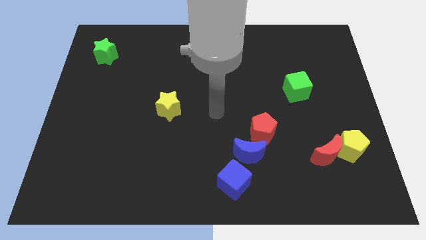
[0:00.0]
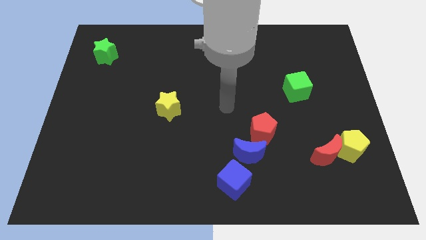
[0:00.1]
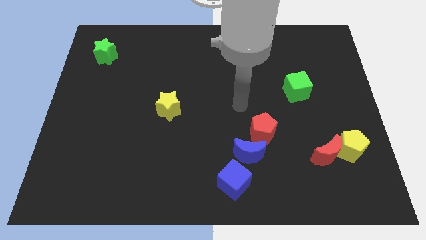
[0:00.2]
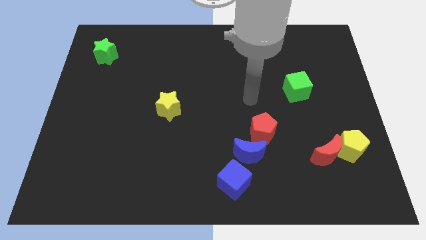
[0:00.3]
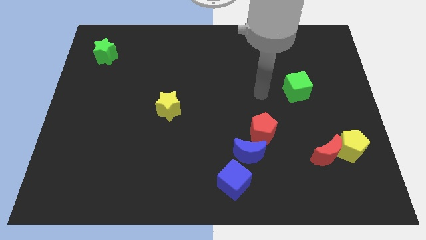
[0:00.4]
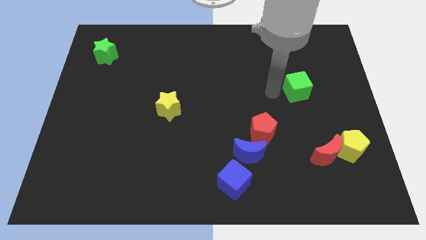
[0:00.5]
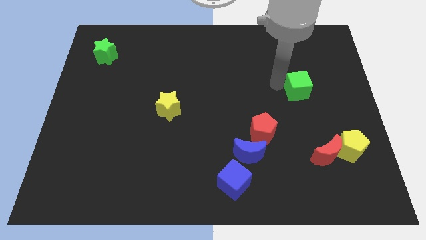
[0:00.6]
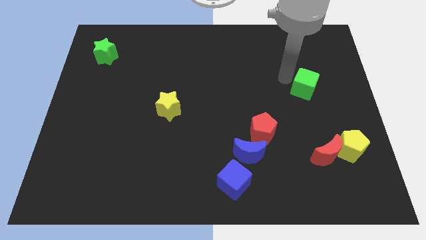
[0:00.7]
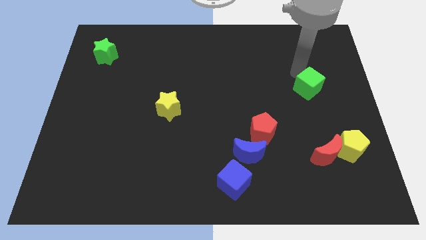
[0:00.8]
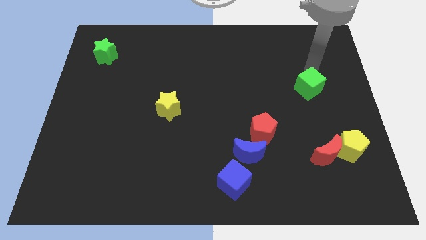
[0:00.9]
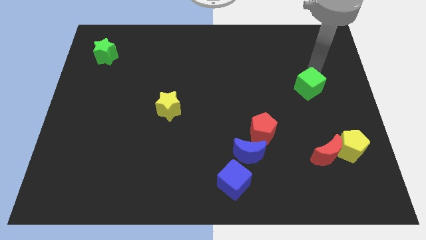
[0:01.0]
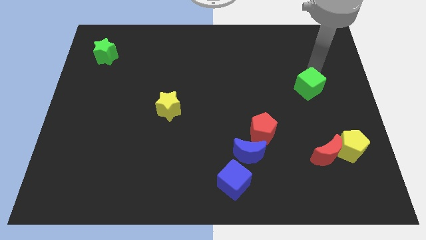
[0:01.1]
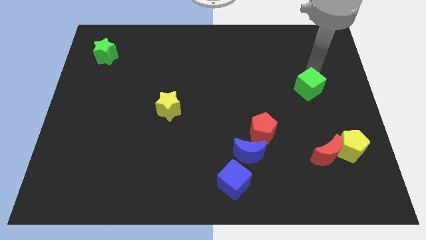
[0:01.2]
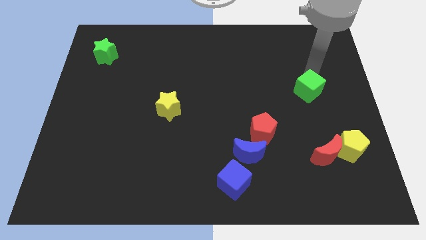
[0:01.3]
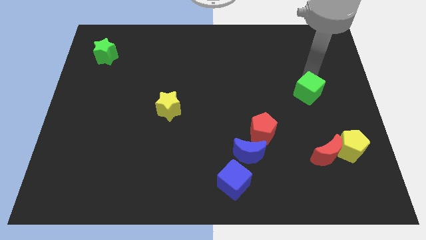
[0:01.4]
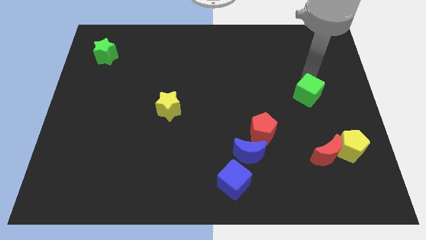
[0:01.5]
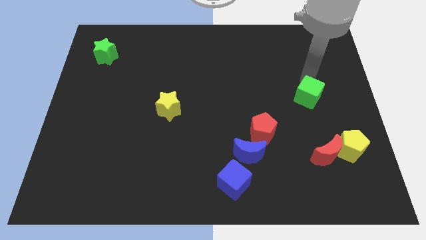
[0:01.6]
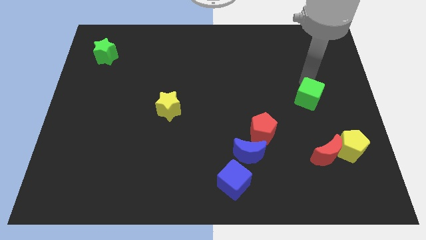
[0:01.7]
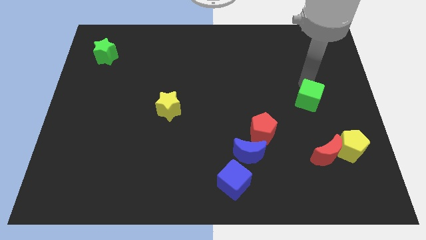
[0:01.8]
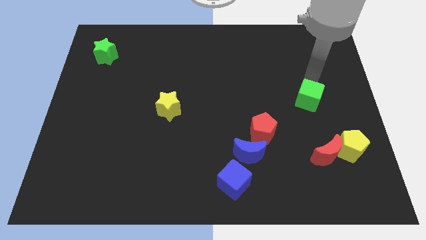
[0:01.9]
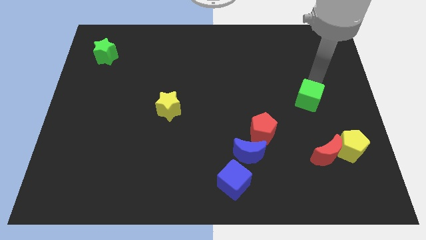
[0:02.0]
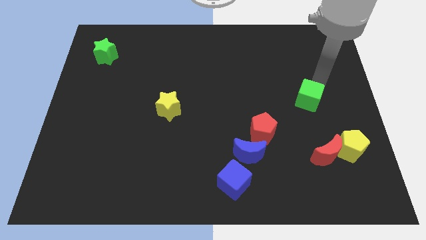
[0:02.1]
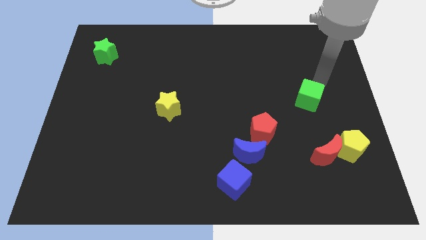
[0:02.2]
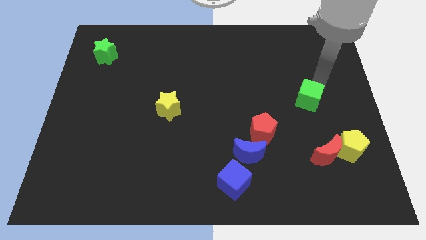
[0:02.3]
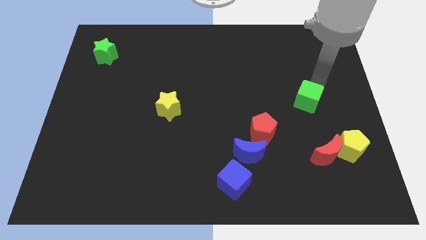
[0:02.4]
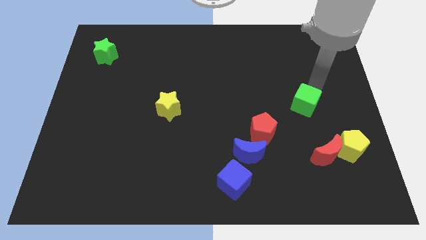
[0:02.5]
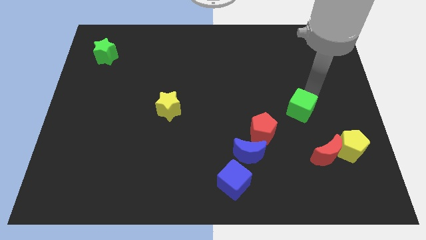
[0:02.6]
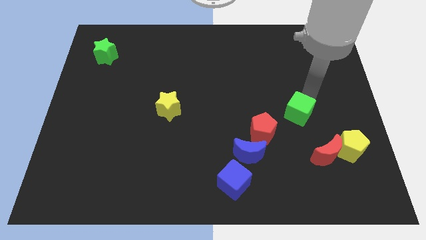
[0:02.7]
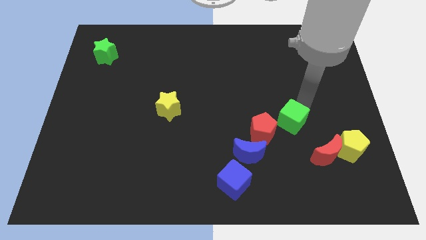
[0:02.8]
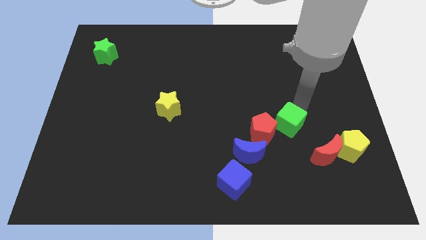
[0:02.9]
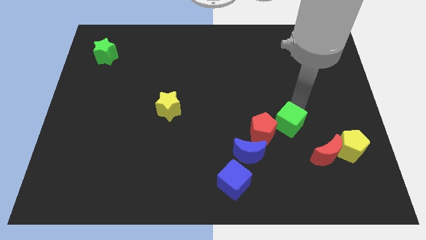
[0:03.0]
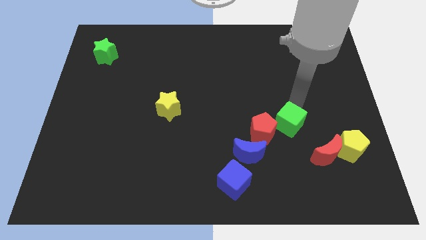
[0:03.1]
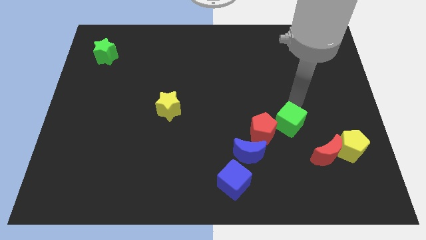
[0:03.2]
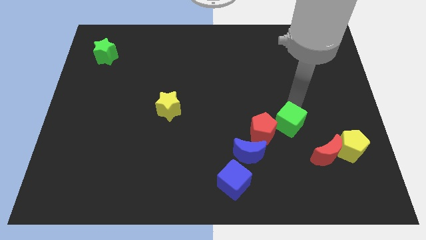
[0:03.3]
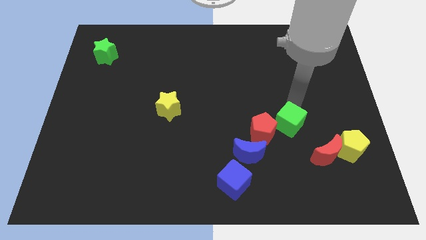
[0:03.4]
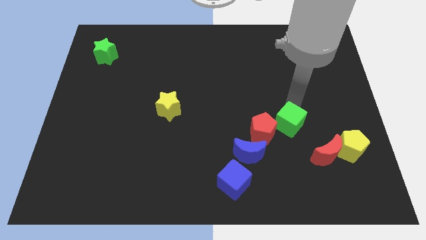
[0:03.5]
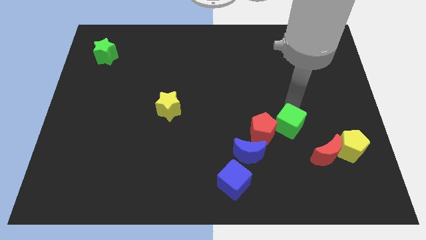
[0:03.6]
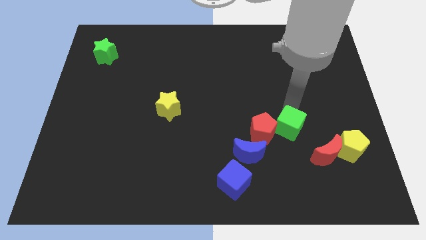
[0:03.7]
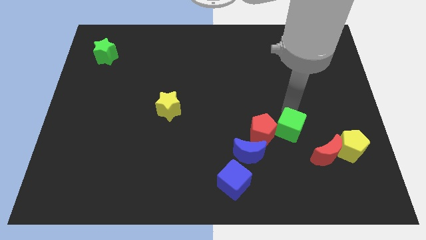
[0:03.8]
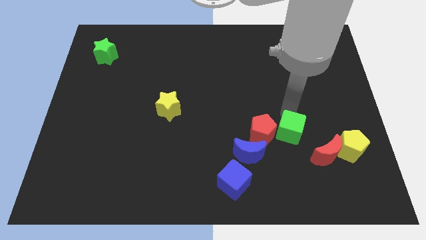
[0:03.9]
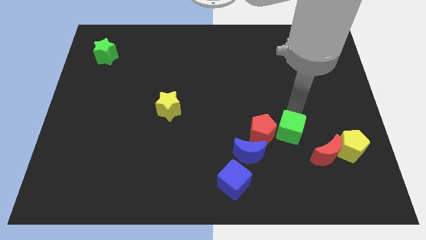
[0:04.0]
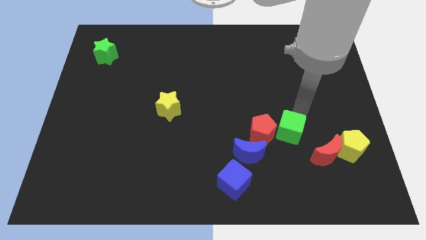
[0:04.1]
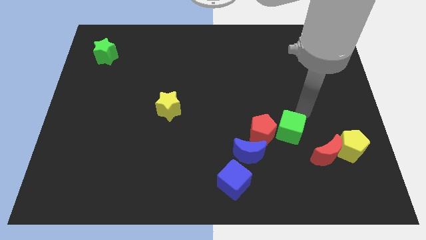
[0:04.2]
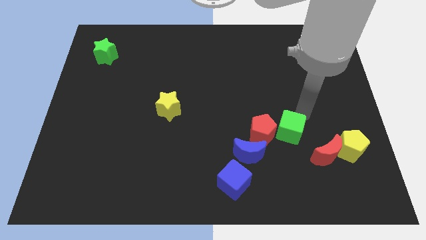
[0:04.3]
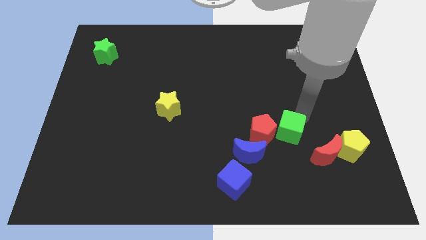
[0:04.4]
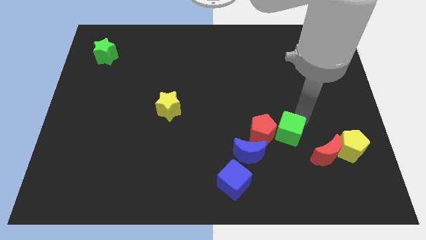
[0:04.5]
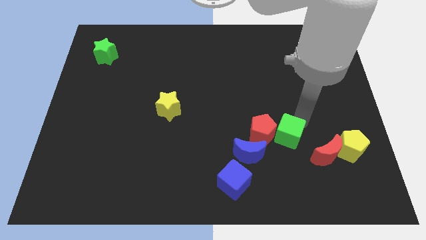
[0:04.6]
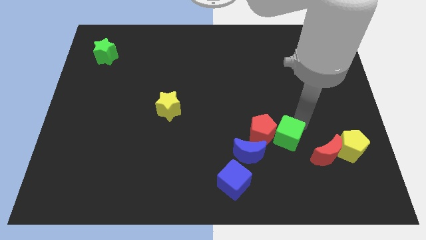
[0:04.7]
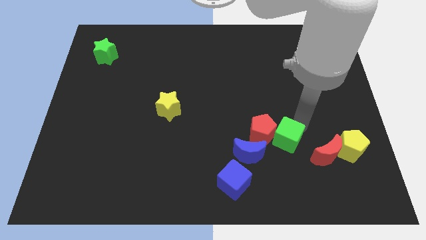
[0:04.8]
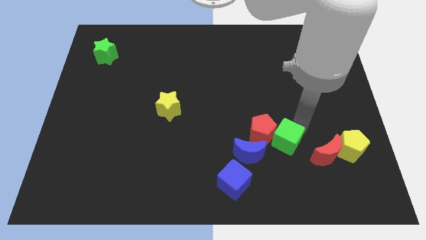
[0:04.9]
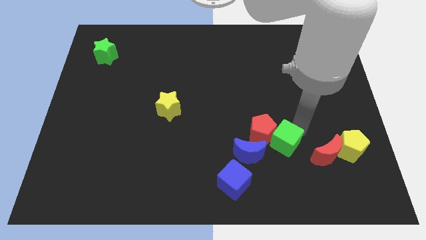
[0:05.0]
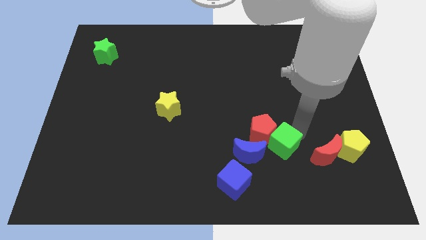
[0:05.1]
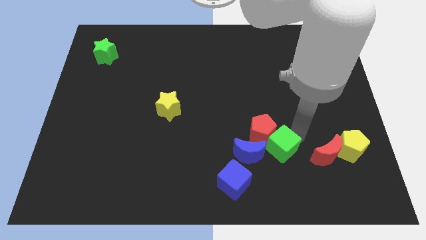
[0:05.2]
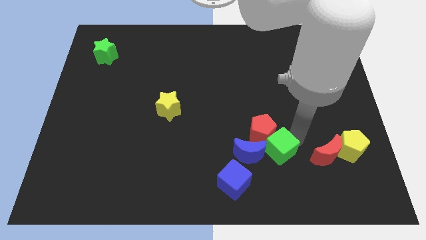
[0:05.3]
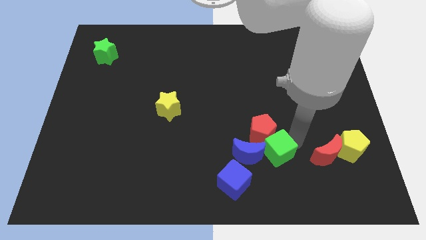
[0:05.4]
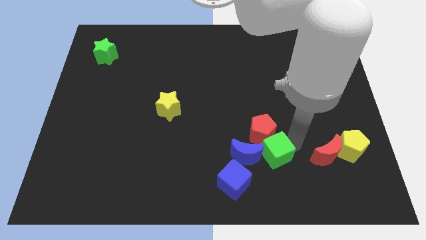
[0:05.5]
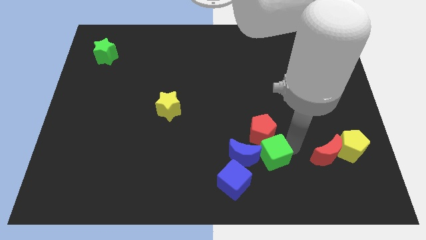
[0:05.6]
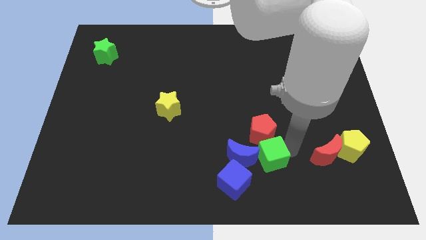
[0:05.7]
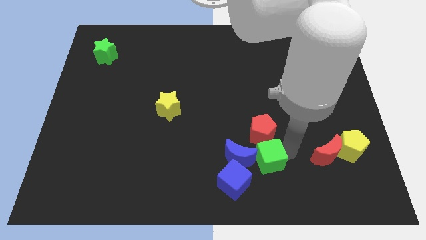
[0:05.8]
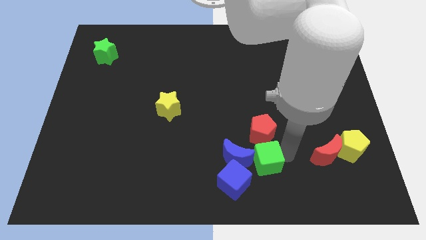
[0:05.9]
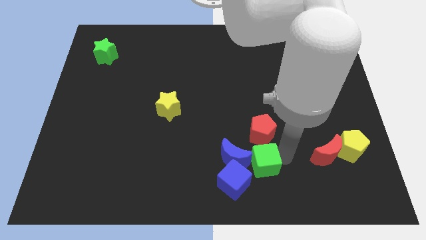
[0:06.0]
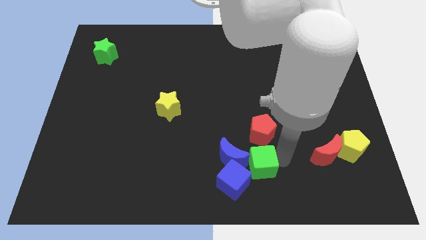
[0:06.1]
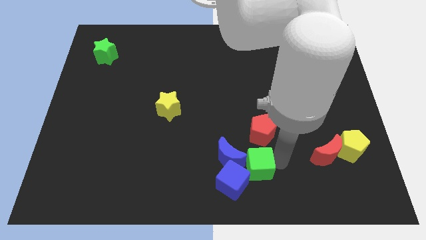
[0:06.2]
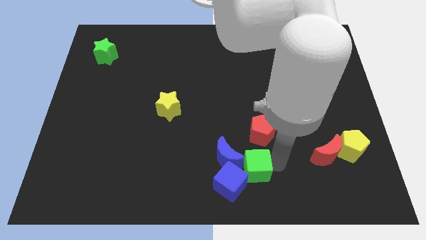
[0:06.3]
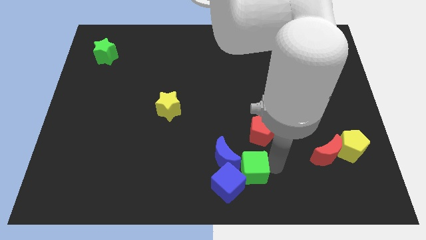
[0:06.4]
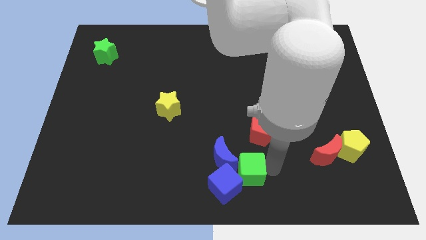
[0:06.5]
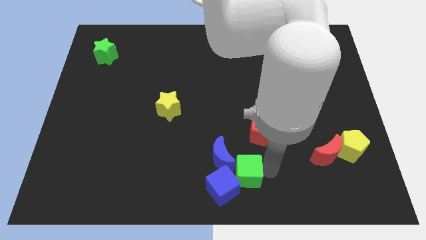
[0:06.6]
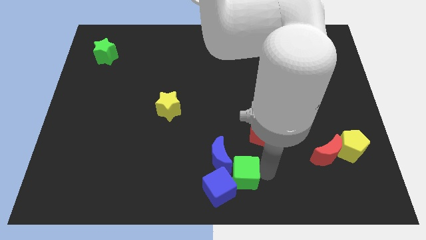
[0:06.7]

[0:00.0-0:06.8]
push the green cube to the blue moon

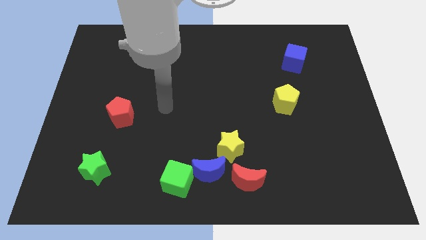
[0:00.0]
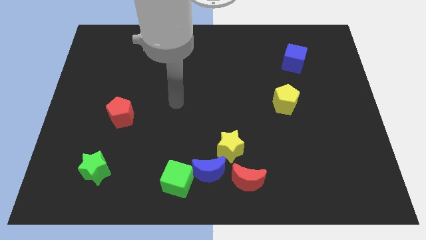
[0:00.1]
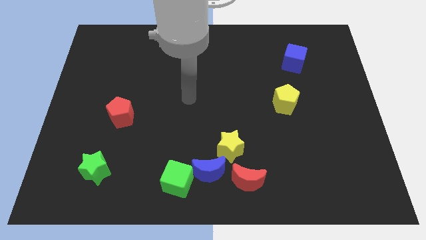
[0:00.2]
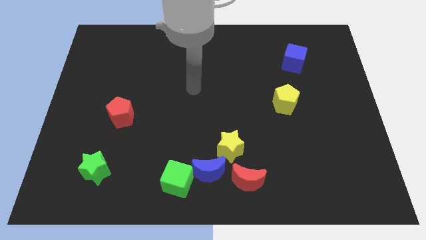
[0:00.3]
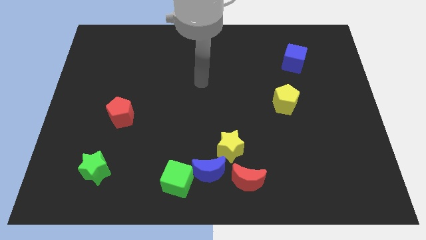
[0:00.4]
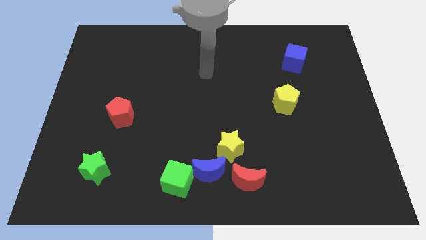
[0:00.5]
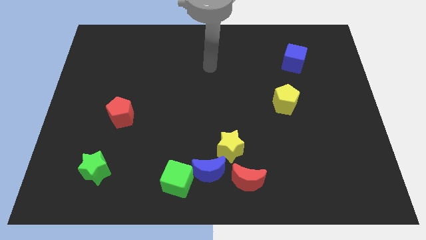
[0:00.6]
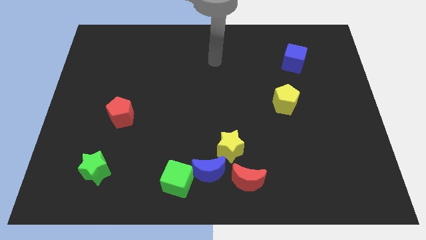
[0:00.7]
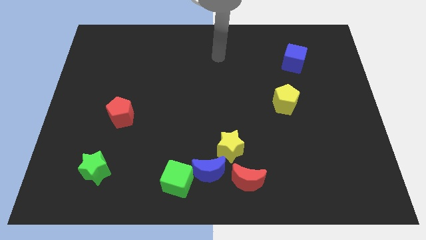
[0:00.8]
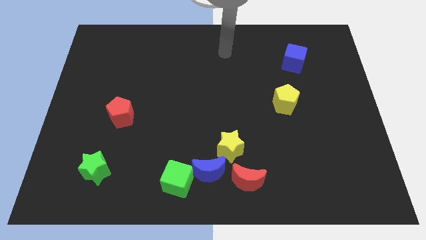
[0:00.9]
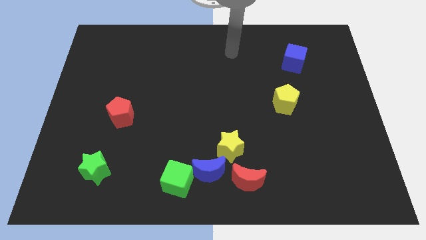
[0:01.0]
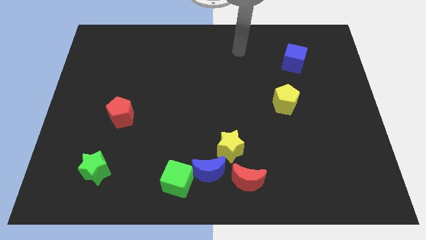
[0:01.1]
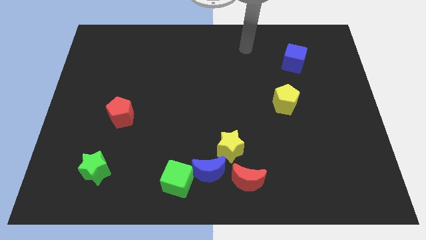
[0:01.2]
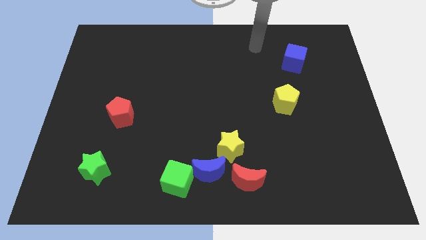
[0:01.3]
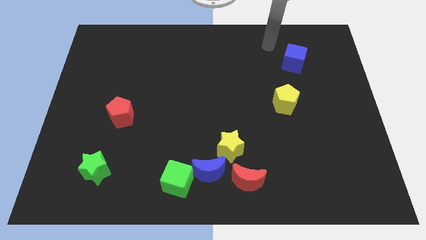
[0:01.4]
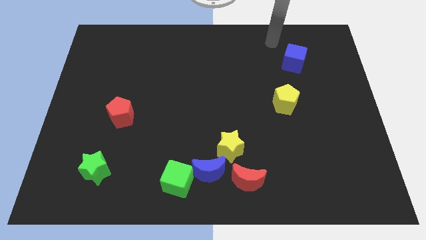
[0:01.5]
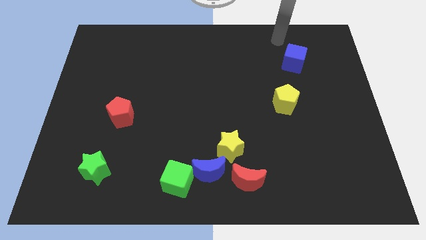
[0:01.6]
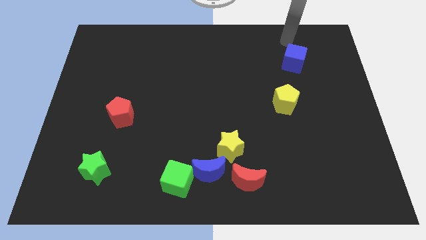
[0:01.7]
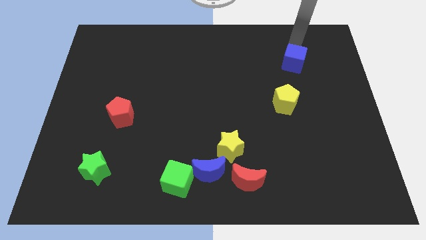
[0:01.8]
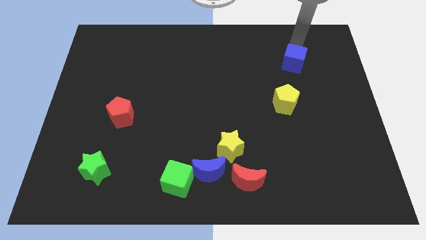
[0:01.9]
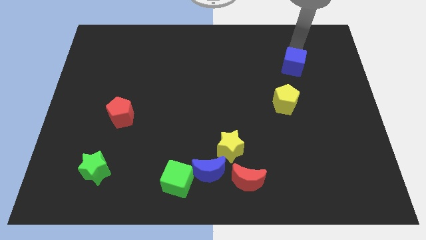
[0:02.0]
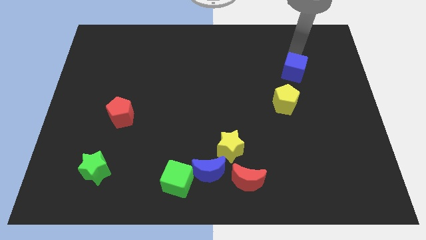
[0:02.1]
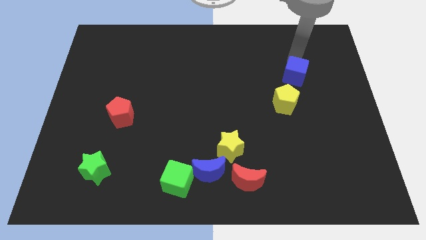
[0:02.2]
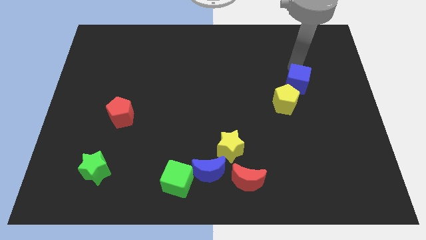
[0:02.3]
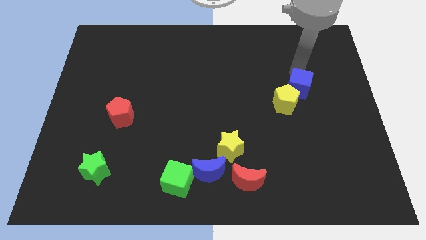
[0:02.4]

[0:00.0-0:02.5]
slide the blue cube next to the yellow pentagon
